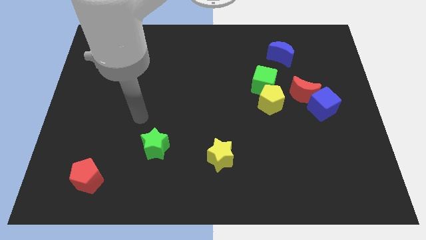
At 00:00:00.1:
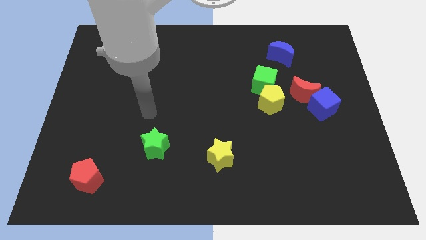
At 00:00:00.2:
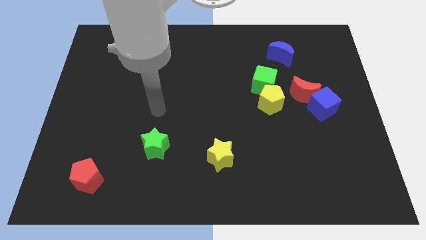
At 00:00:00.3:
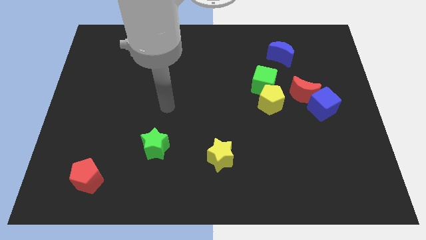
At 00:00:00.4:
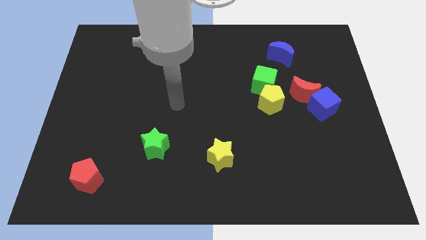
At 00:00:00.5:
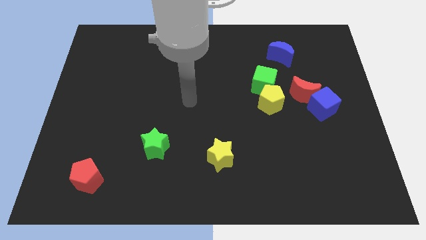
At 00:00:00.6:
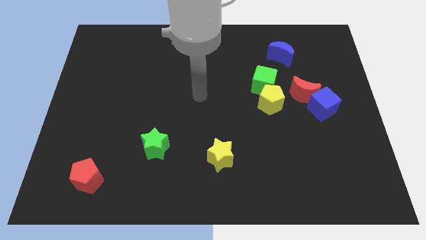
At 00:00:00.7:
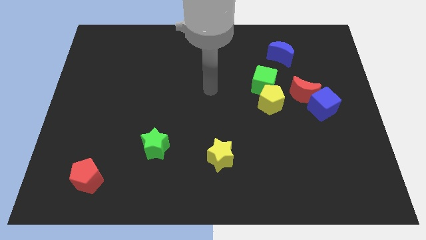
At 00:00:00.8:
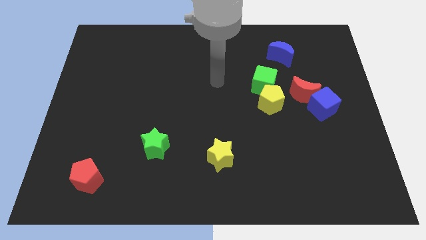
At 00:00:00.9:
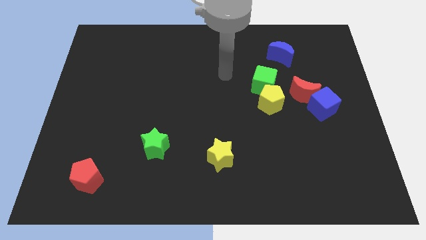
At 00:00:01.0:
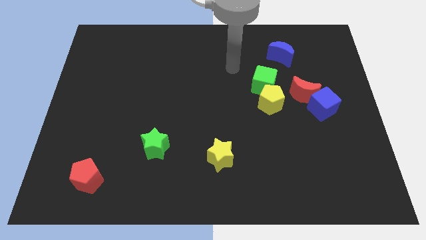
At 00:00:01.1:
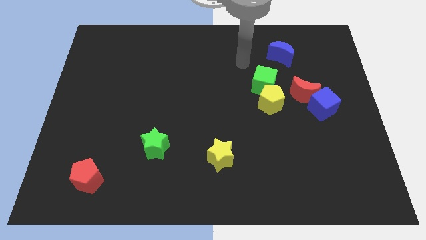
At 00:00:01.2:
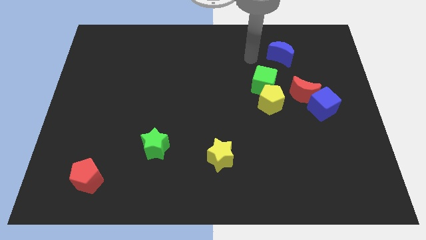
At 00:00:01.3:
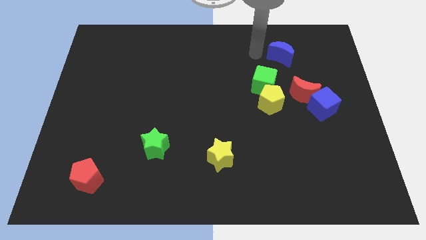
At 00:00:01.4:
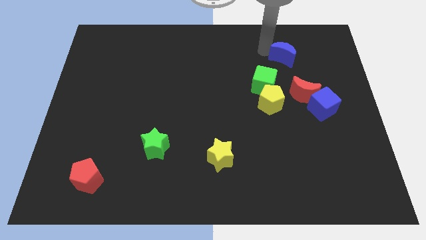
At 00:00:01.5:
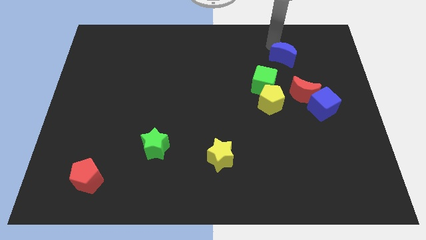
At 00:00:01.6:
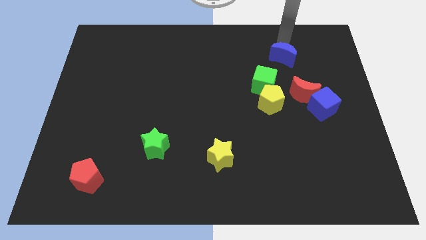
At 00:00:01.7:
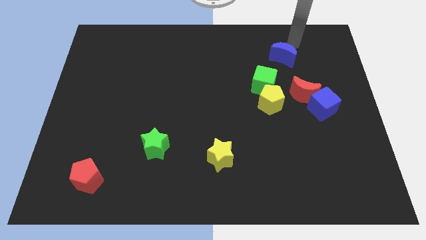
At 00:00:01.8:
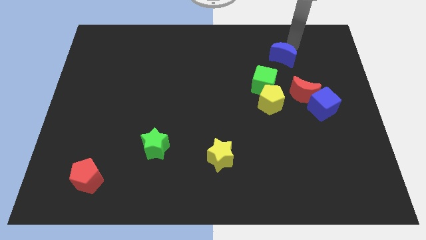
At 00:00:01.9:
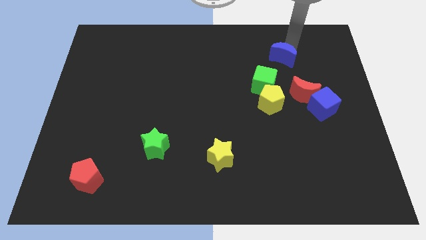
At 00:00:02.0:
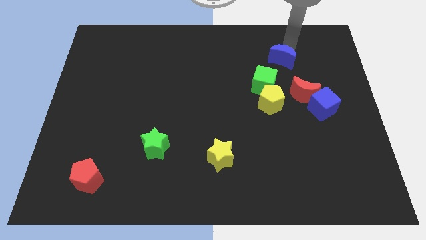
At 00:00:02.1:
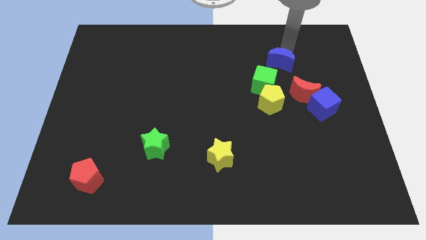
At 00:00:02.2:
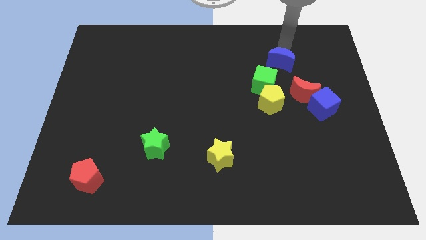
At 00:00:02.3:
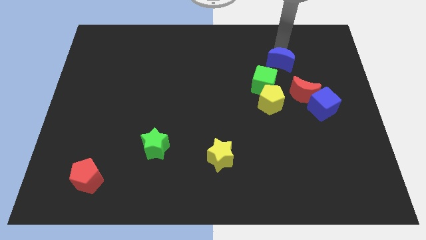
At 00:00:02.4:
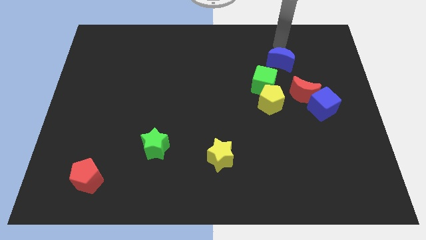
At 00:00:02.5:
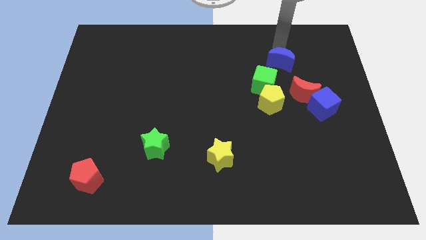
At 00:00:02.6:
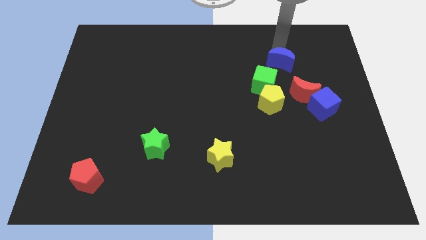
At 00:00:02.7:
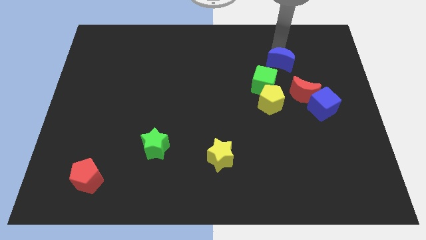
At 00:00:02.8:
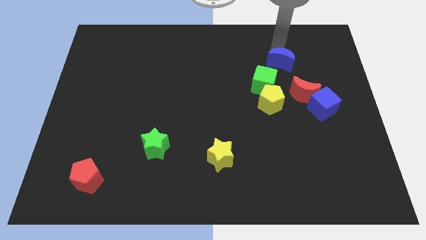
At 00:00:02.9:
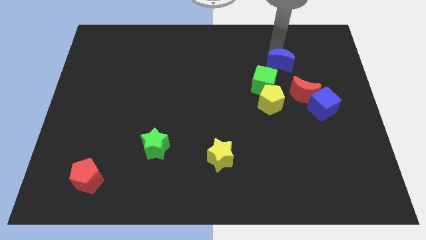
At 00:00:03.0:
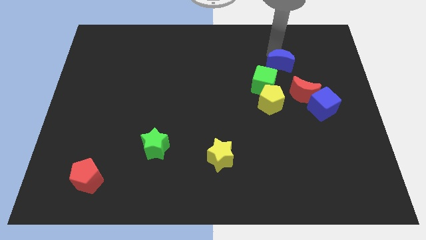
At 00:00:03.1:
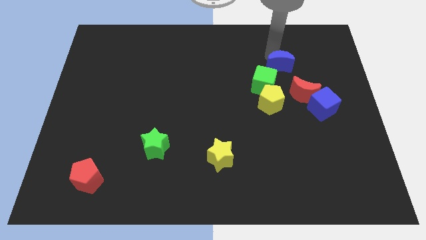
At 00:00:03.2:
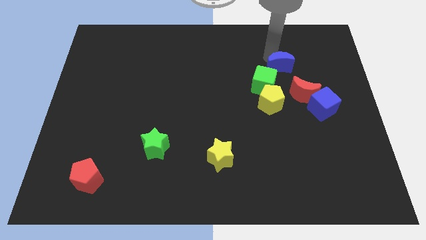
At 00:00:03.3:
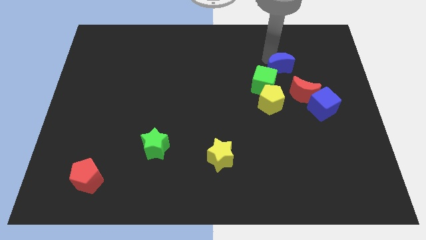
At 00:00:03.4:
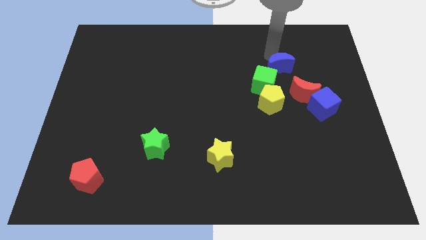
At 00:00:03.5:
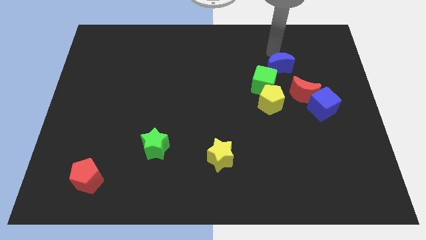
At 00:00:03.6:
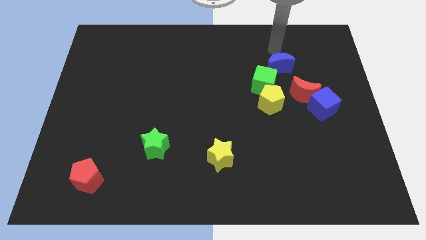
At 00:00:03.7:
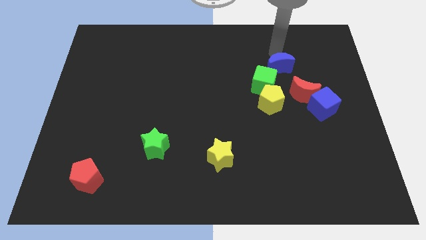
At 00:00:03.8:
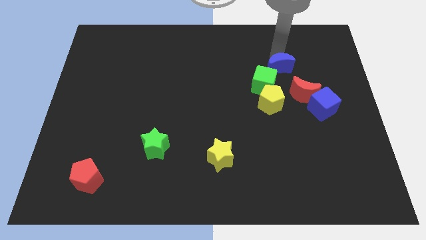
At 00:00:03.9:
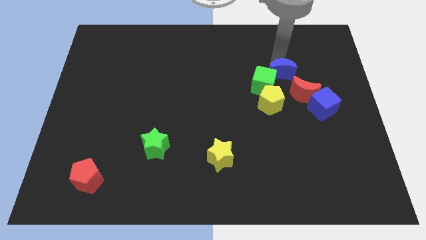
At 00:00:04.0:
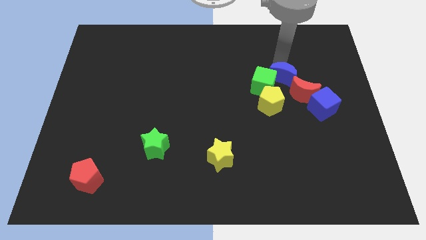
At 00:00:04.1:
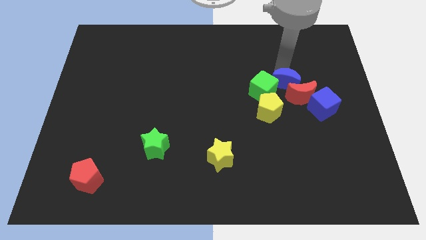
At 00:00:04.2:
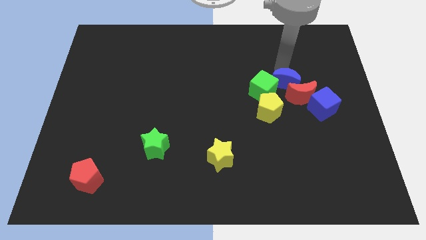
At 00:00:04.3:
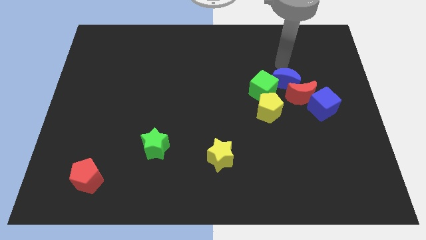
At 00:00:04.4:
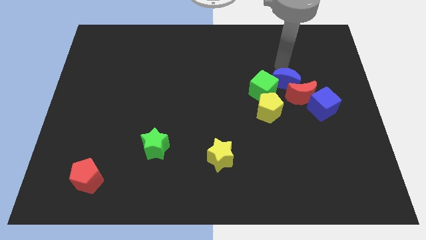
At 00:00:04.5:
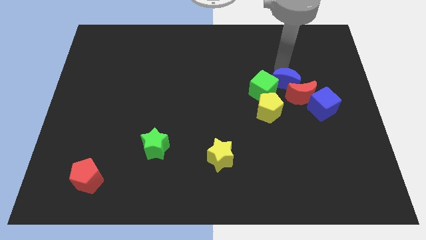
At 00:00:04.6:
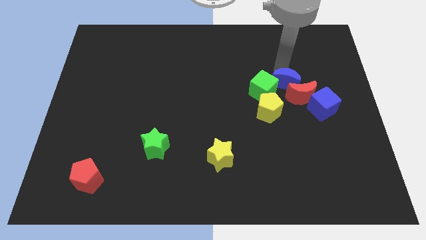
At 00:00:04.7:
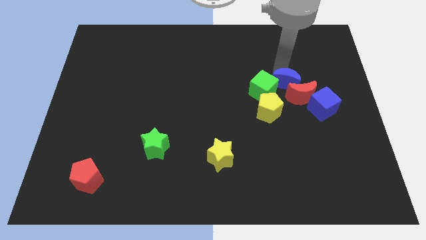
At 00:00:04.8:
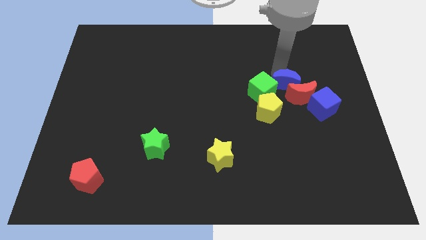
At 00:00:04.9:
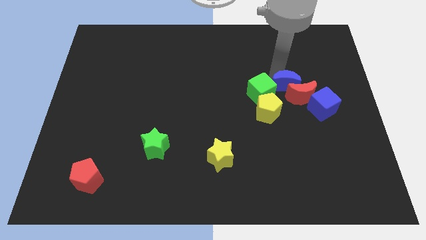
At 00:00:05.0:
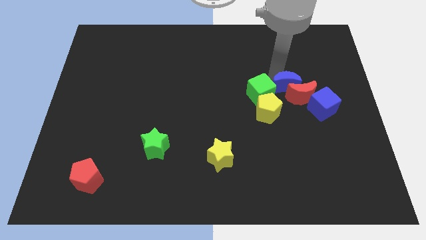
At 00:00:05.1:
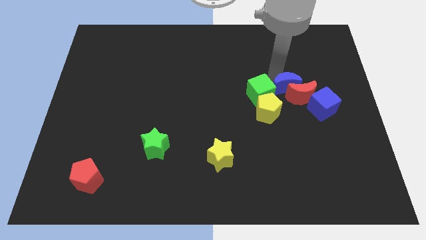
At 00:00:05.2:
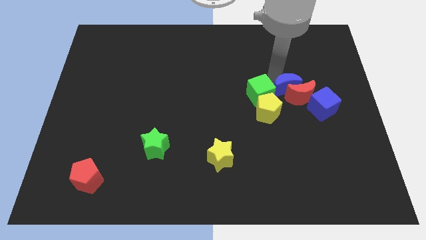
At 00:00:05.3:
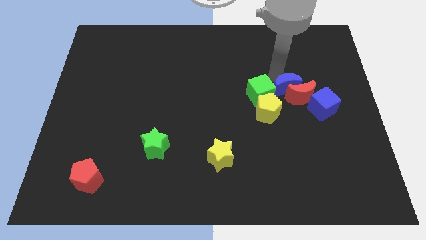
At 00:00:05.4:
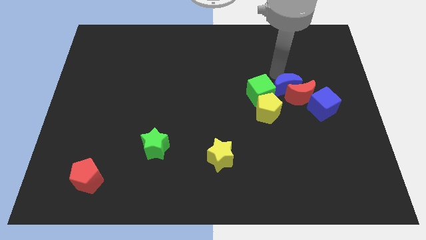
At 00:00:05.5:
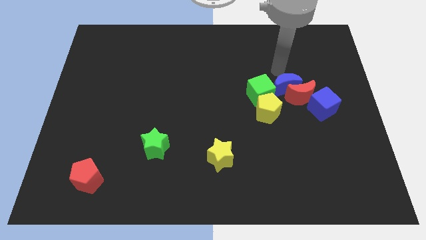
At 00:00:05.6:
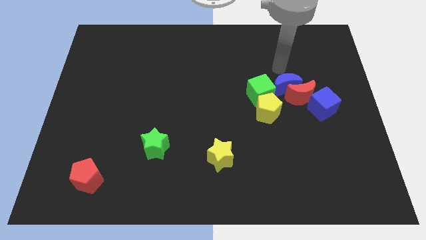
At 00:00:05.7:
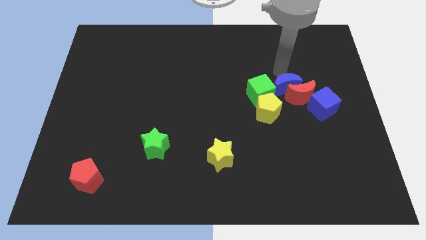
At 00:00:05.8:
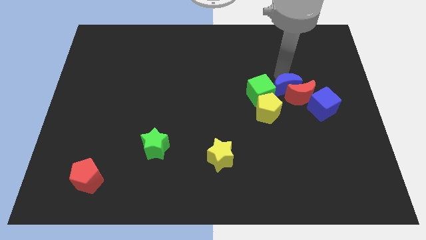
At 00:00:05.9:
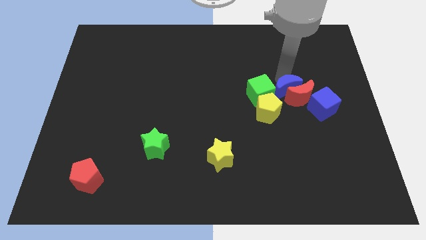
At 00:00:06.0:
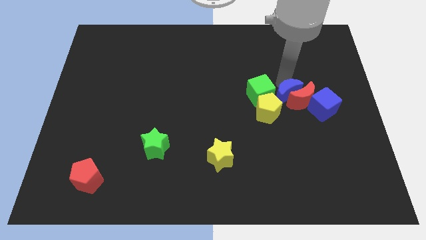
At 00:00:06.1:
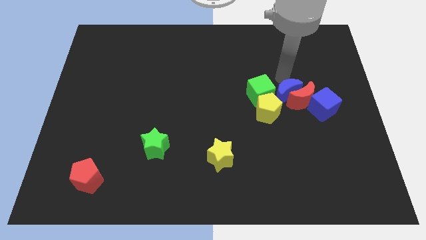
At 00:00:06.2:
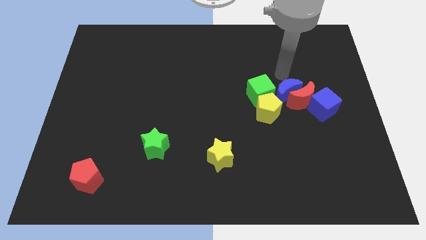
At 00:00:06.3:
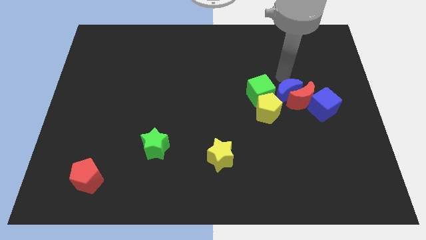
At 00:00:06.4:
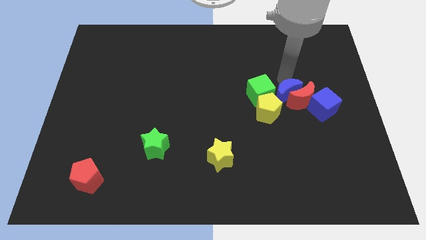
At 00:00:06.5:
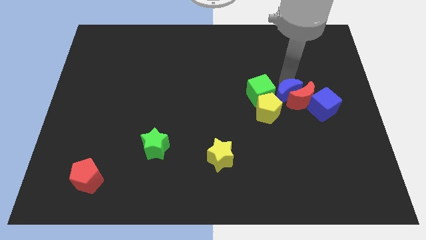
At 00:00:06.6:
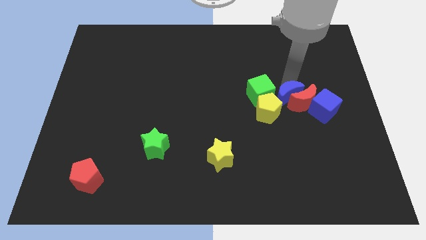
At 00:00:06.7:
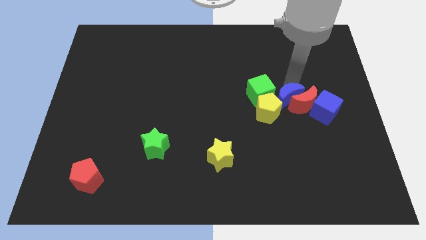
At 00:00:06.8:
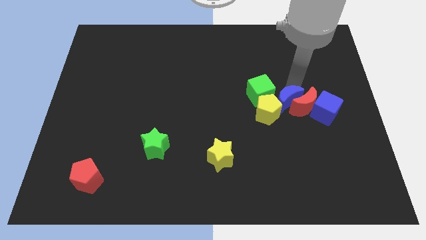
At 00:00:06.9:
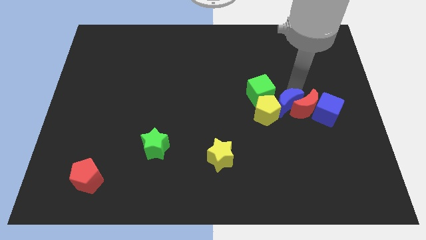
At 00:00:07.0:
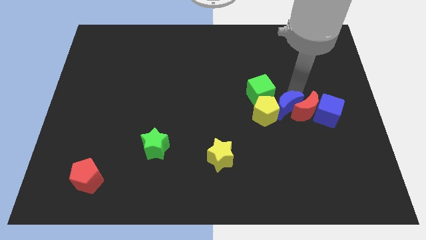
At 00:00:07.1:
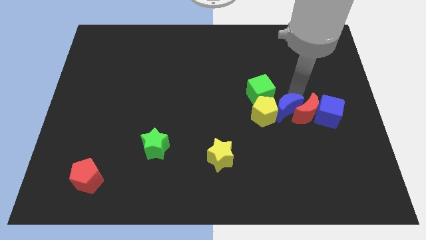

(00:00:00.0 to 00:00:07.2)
move the blue moon to the bottom right side of the yellow pentagon
